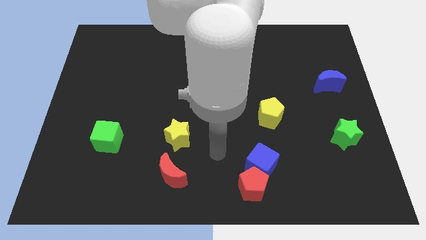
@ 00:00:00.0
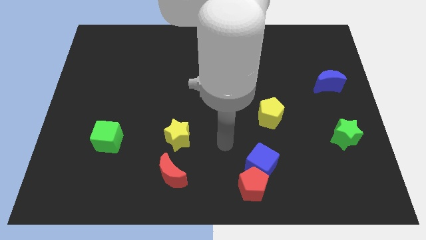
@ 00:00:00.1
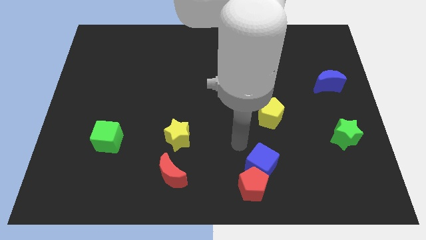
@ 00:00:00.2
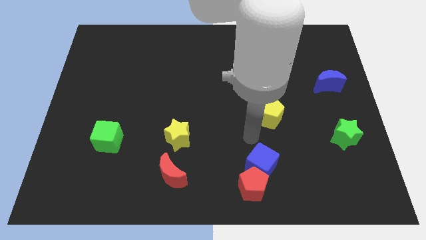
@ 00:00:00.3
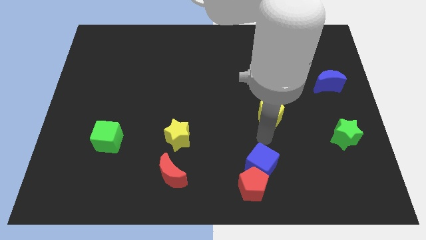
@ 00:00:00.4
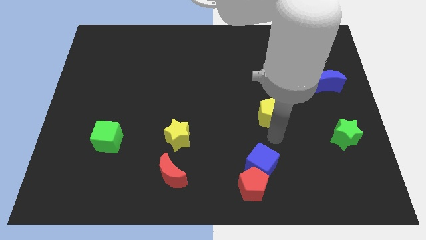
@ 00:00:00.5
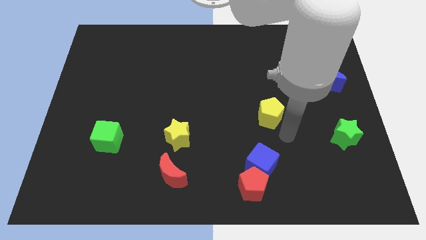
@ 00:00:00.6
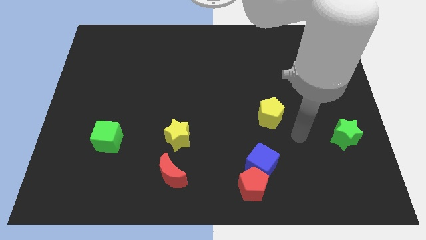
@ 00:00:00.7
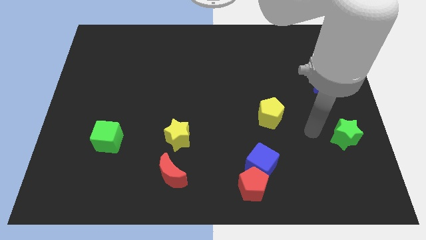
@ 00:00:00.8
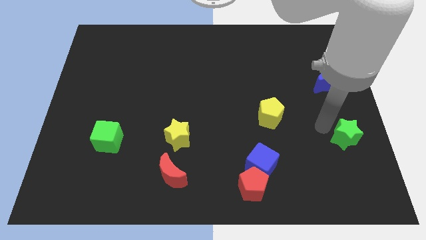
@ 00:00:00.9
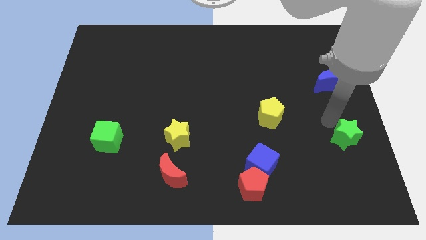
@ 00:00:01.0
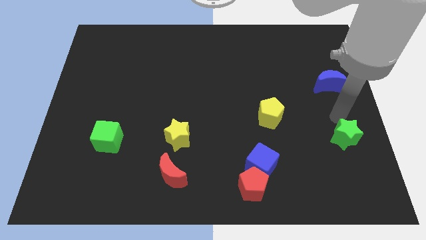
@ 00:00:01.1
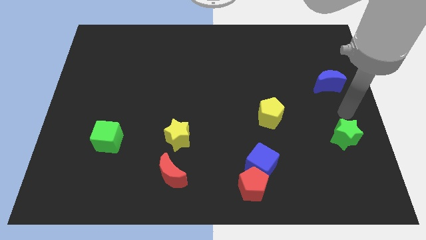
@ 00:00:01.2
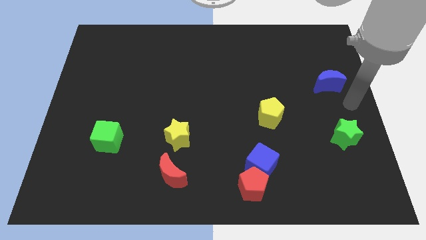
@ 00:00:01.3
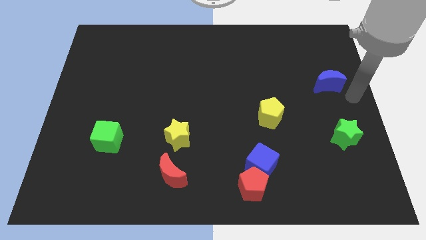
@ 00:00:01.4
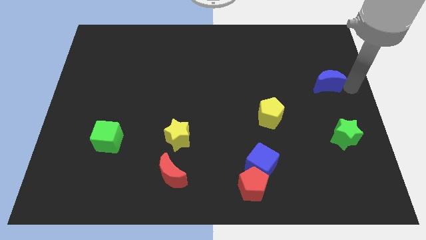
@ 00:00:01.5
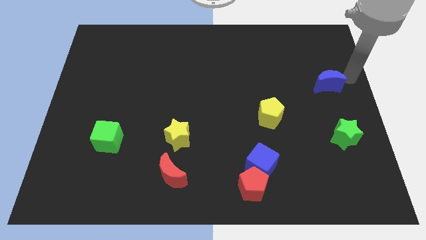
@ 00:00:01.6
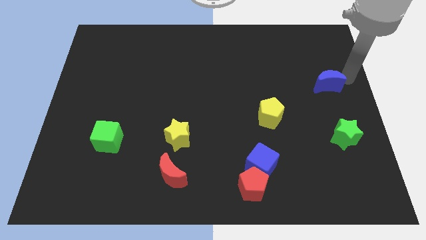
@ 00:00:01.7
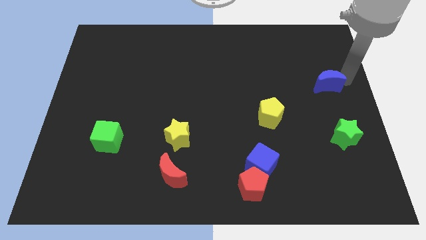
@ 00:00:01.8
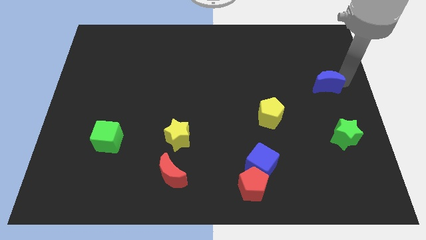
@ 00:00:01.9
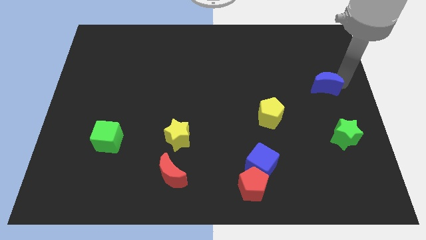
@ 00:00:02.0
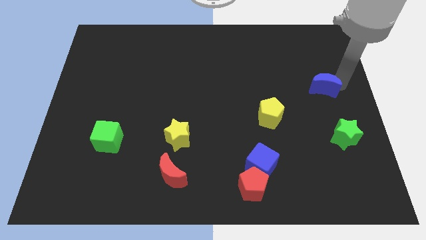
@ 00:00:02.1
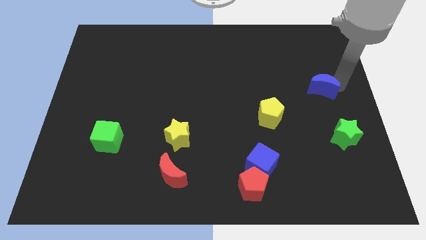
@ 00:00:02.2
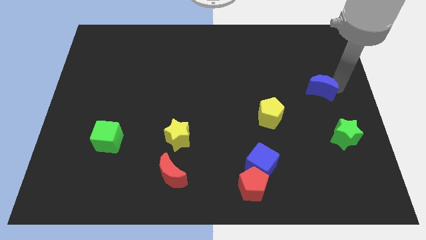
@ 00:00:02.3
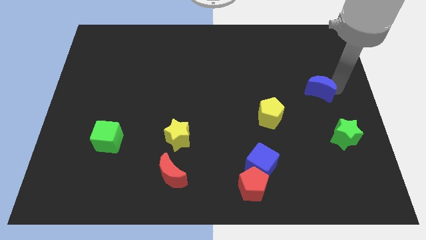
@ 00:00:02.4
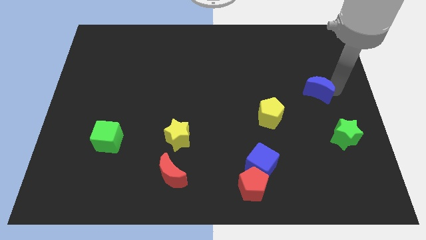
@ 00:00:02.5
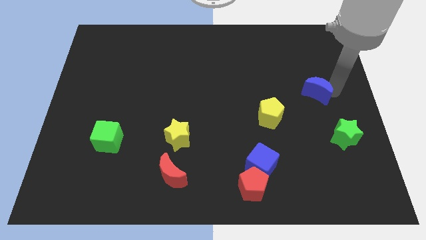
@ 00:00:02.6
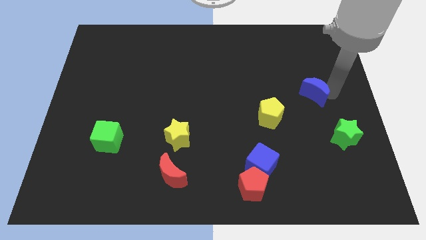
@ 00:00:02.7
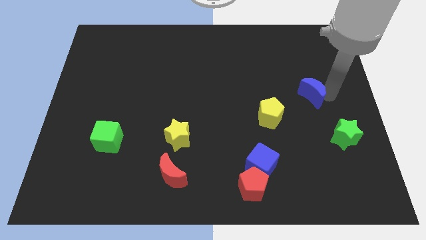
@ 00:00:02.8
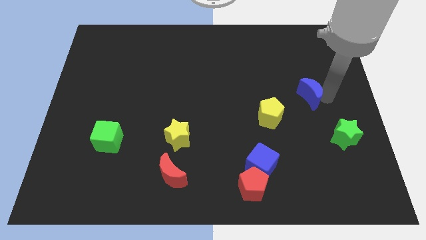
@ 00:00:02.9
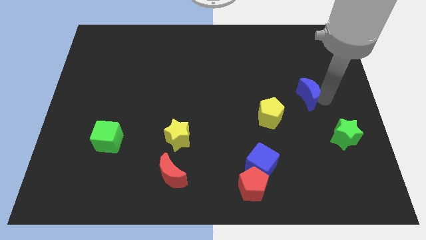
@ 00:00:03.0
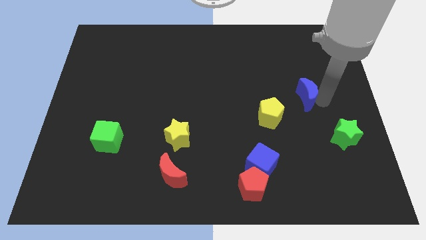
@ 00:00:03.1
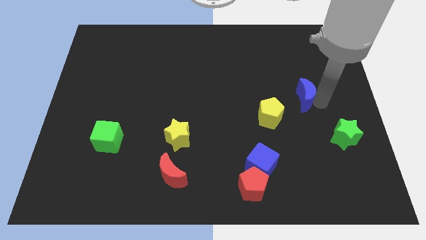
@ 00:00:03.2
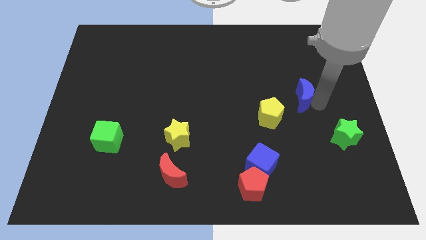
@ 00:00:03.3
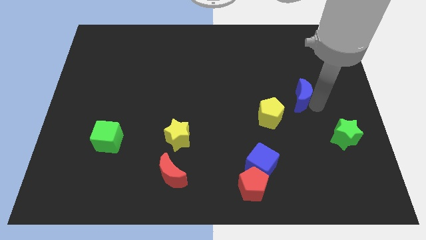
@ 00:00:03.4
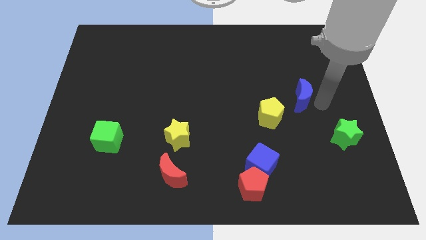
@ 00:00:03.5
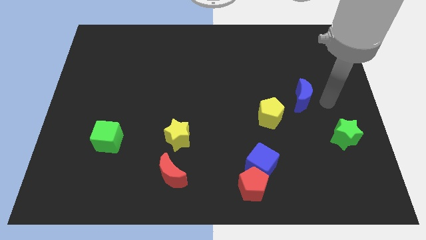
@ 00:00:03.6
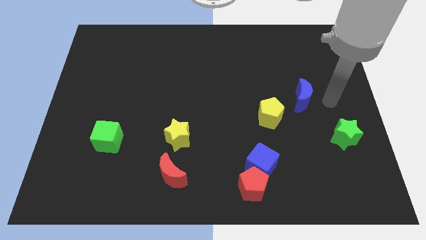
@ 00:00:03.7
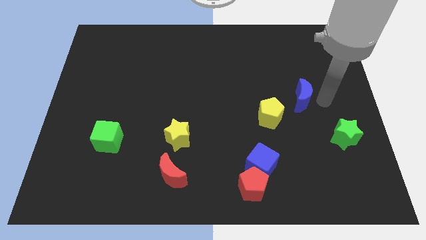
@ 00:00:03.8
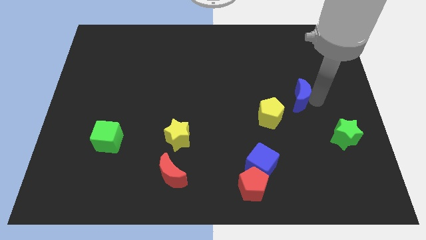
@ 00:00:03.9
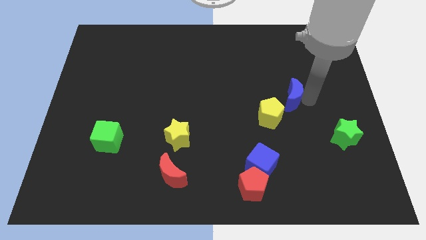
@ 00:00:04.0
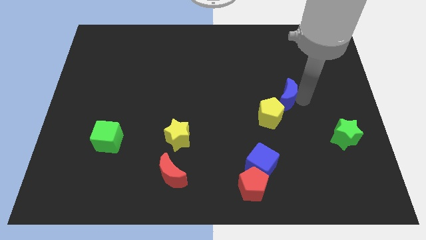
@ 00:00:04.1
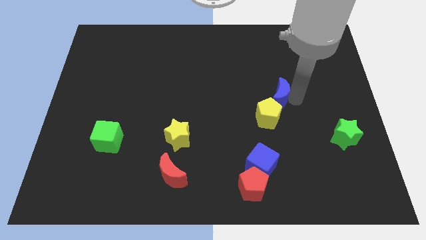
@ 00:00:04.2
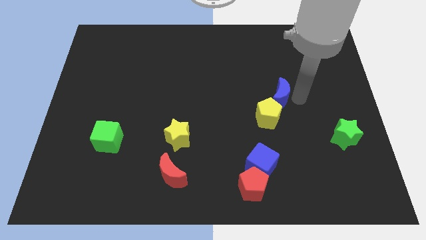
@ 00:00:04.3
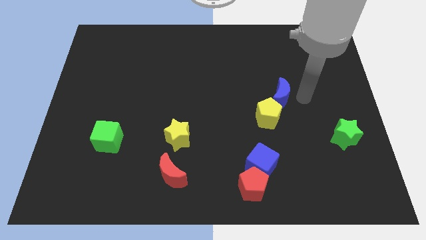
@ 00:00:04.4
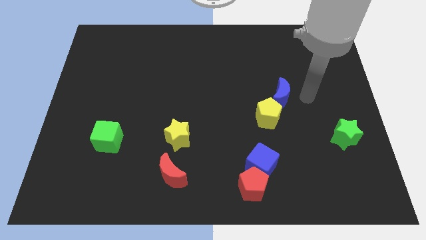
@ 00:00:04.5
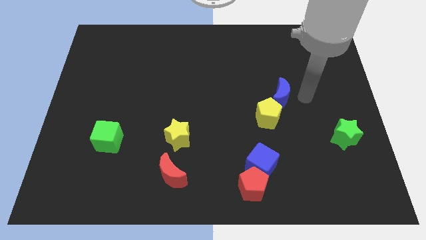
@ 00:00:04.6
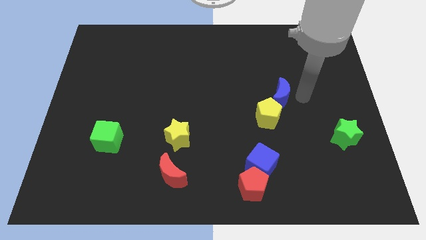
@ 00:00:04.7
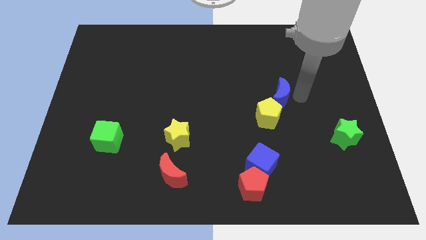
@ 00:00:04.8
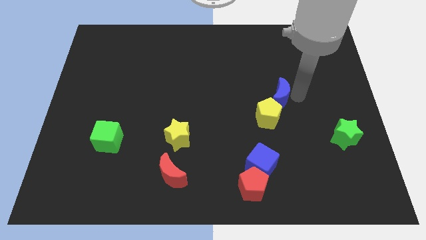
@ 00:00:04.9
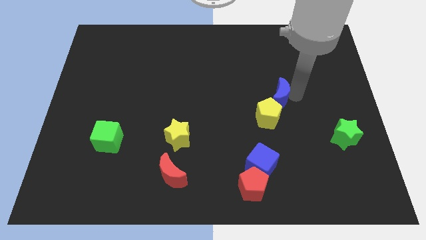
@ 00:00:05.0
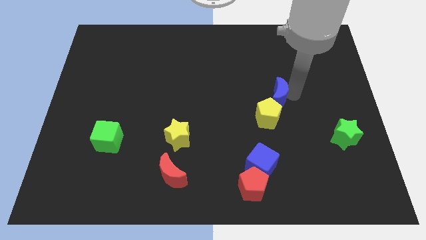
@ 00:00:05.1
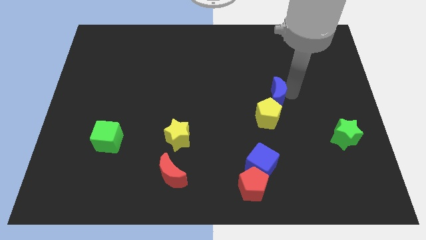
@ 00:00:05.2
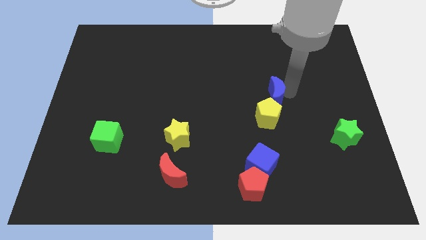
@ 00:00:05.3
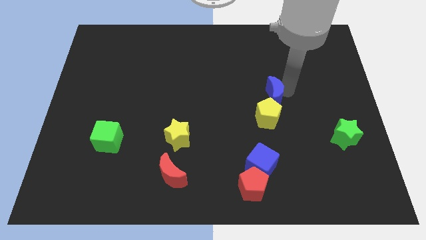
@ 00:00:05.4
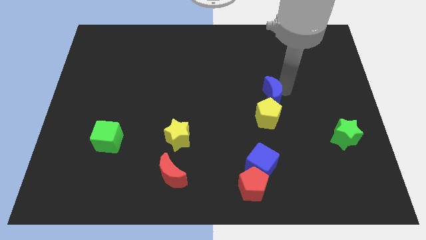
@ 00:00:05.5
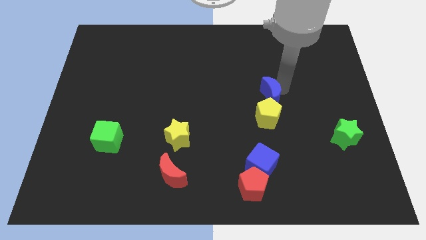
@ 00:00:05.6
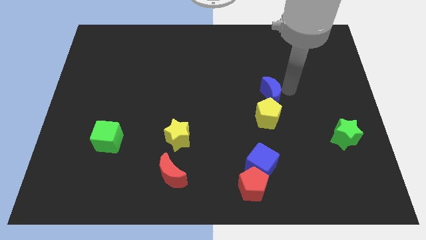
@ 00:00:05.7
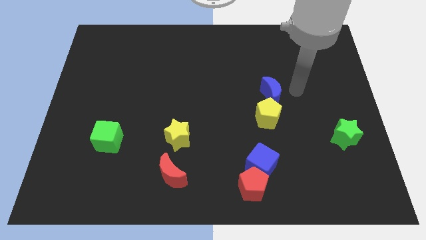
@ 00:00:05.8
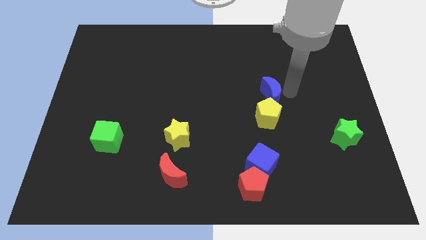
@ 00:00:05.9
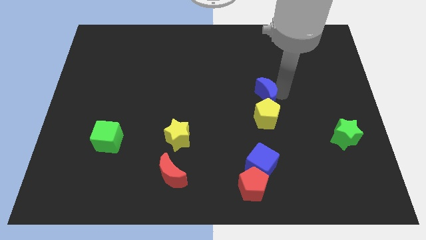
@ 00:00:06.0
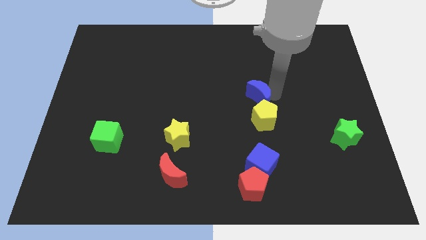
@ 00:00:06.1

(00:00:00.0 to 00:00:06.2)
move the blue moon to the center
